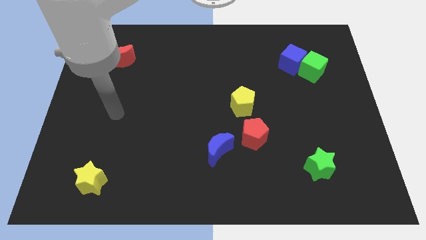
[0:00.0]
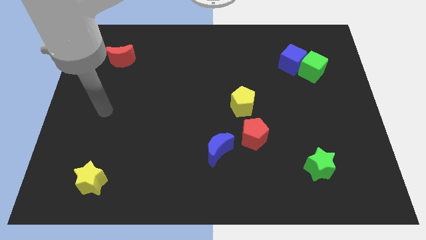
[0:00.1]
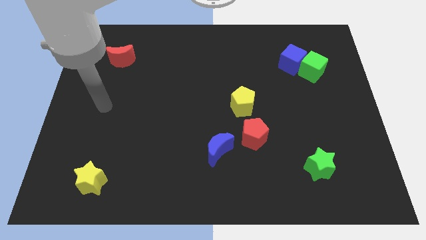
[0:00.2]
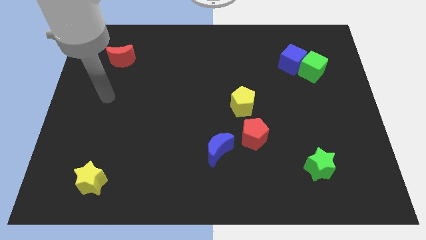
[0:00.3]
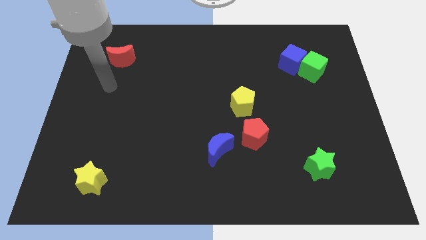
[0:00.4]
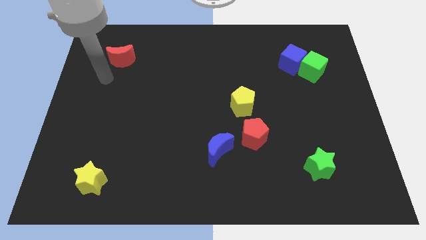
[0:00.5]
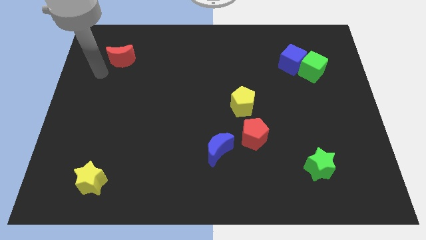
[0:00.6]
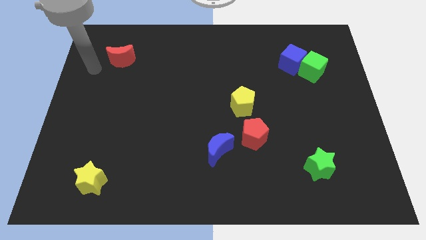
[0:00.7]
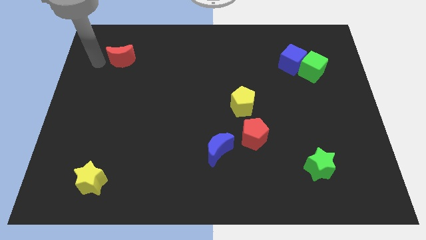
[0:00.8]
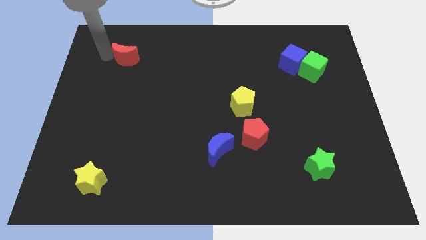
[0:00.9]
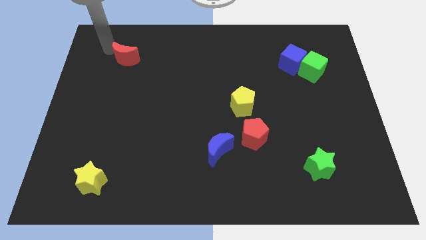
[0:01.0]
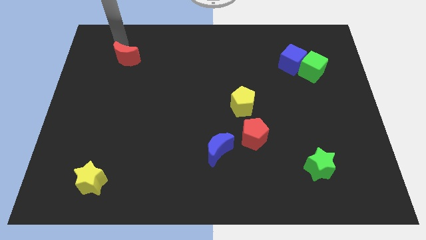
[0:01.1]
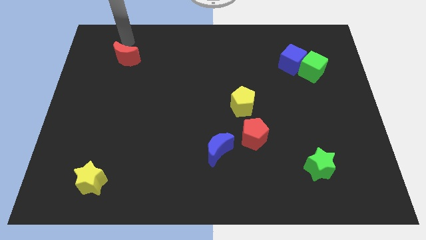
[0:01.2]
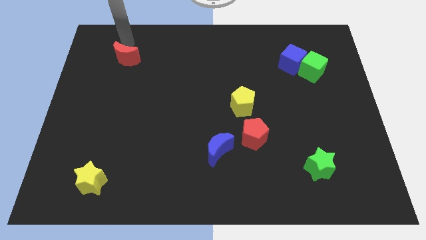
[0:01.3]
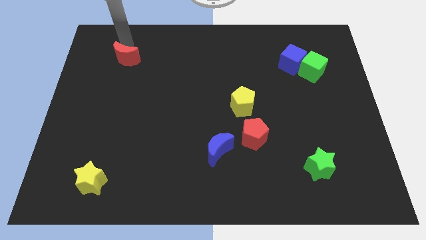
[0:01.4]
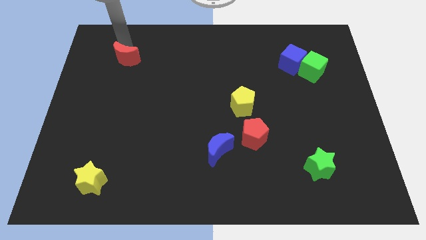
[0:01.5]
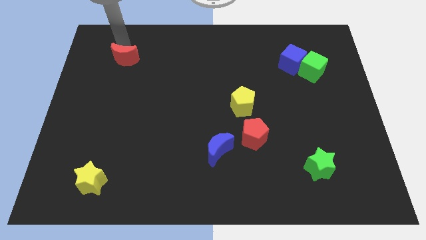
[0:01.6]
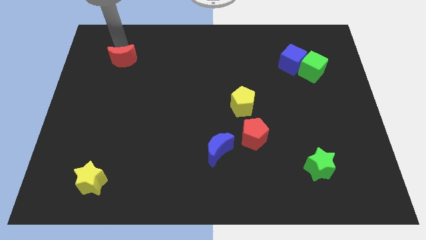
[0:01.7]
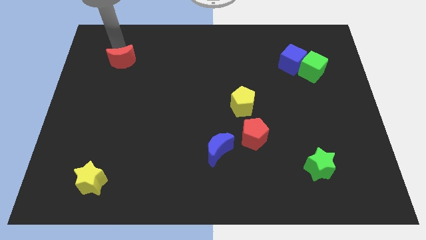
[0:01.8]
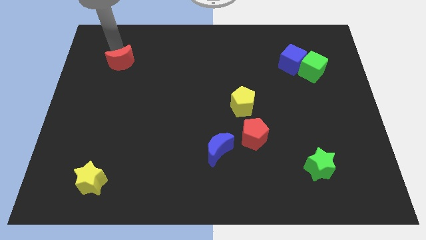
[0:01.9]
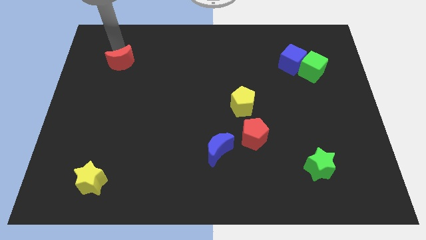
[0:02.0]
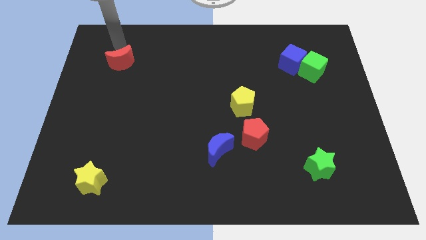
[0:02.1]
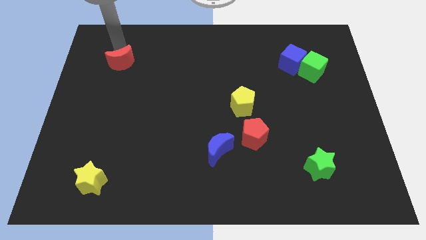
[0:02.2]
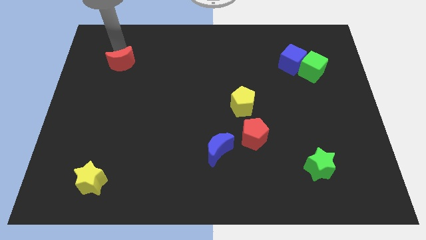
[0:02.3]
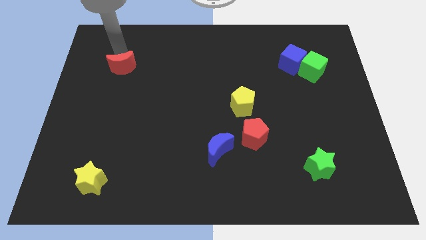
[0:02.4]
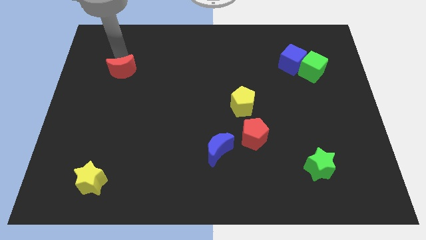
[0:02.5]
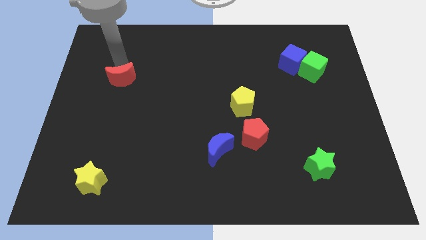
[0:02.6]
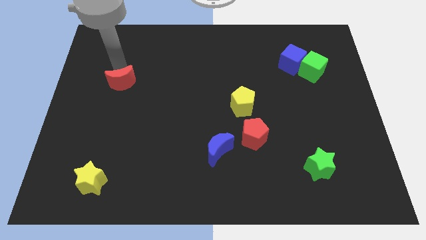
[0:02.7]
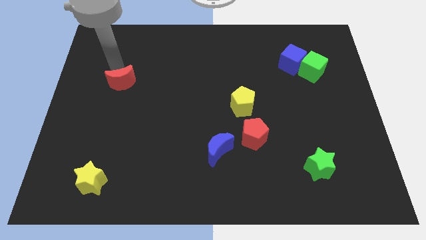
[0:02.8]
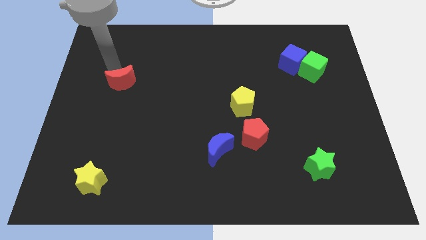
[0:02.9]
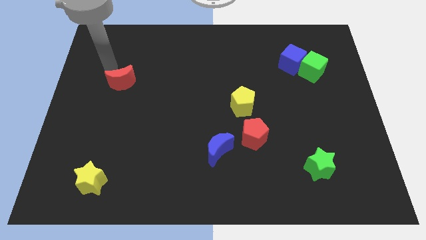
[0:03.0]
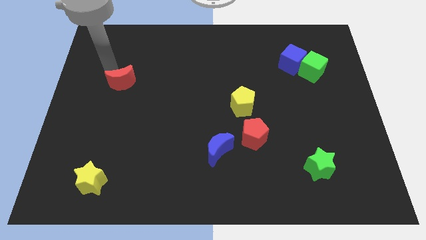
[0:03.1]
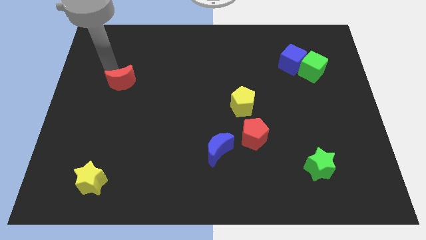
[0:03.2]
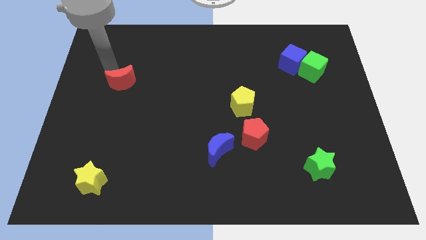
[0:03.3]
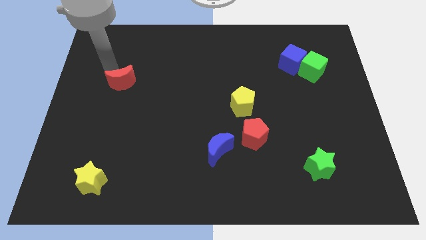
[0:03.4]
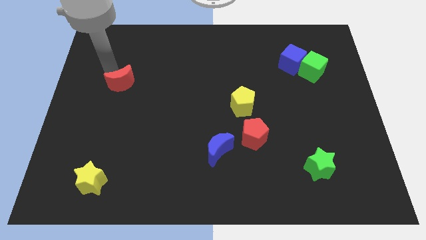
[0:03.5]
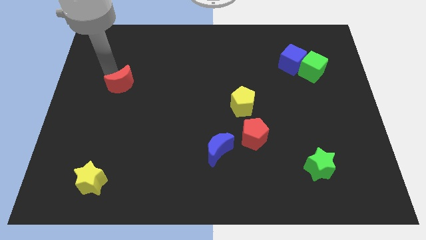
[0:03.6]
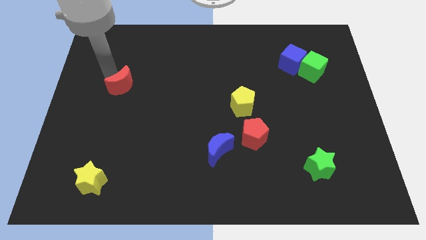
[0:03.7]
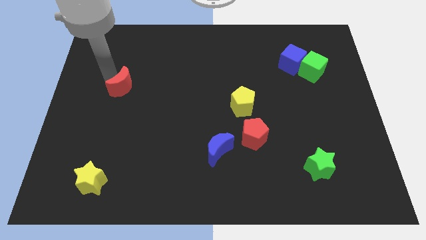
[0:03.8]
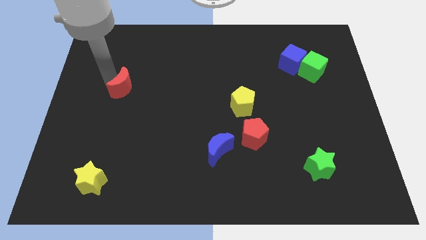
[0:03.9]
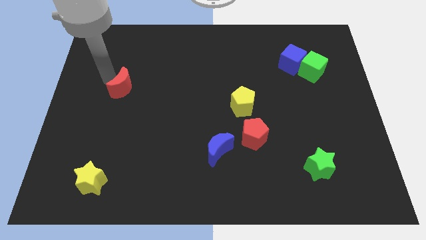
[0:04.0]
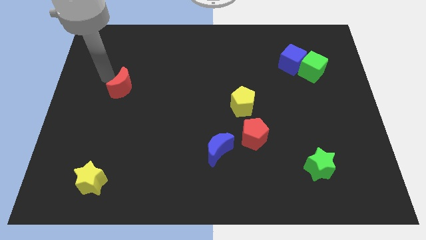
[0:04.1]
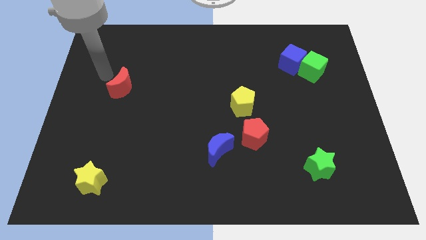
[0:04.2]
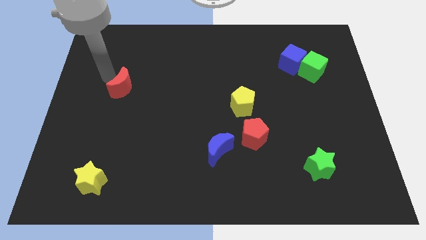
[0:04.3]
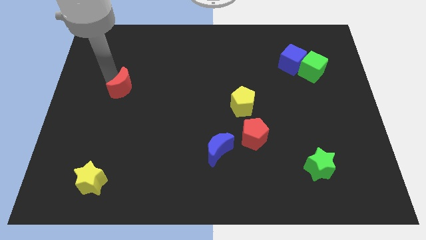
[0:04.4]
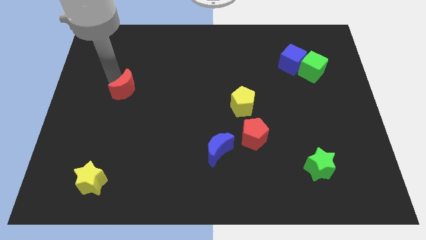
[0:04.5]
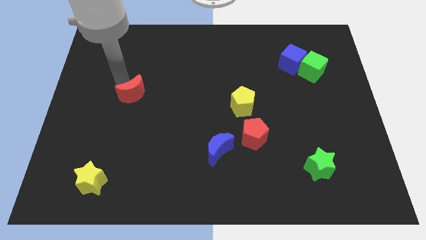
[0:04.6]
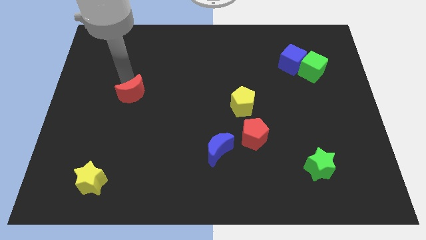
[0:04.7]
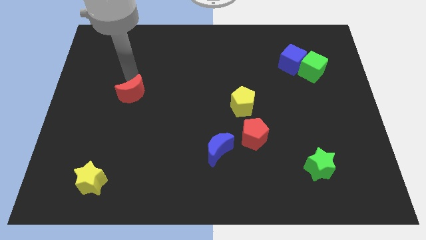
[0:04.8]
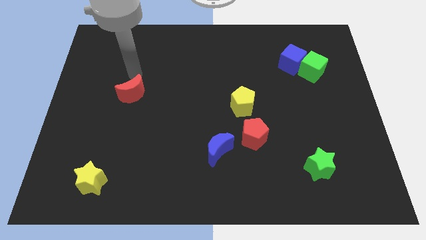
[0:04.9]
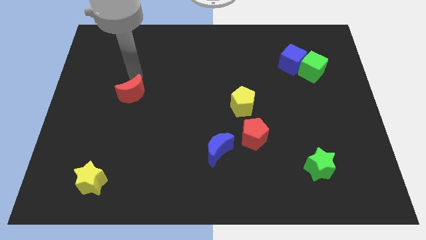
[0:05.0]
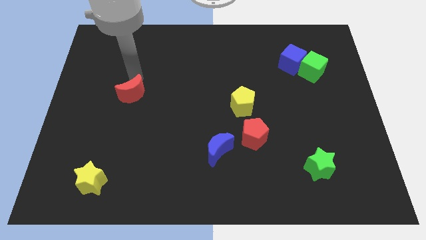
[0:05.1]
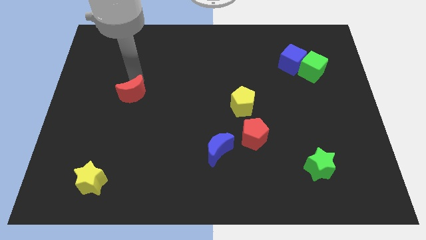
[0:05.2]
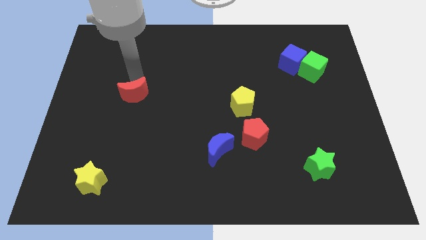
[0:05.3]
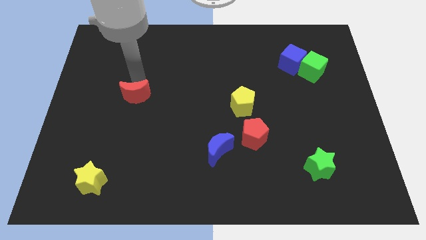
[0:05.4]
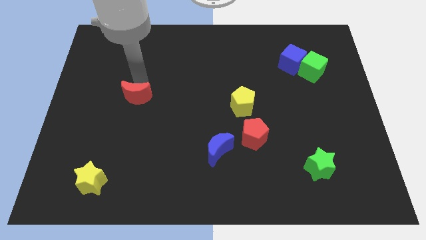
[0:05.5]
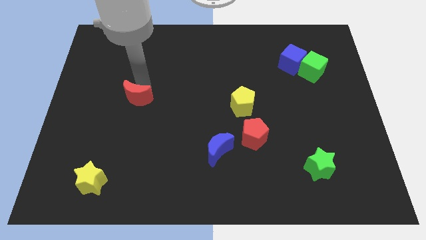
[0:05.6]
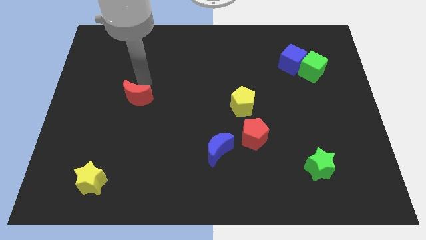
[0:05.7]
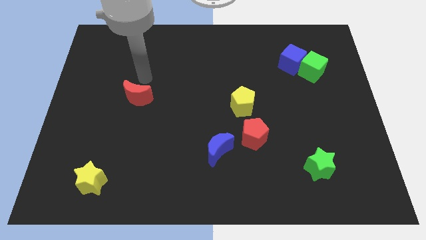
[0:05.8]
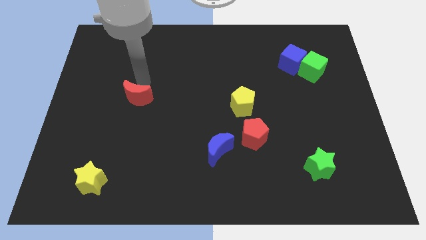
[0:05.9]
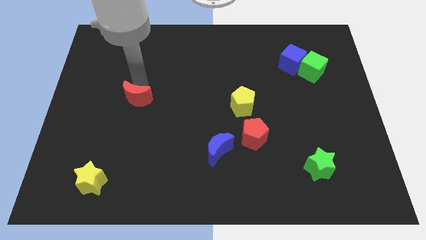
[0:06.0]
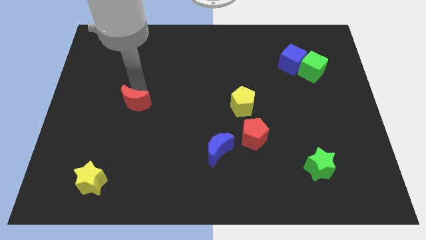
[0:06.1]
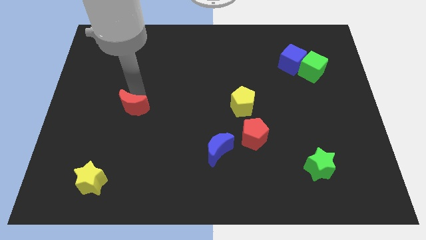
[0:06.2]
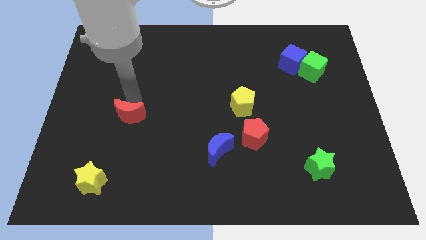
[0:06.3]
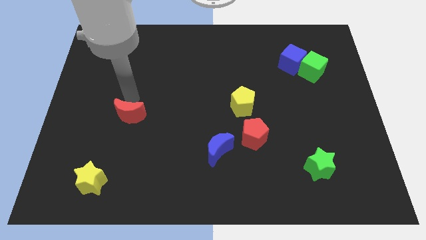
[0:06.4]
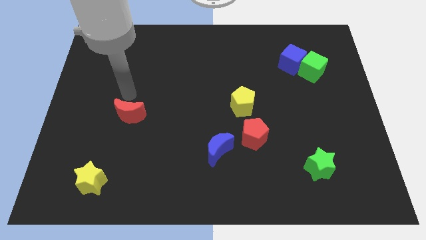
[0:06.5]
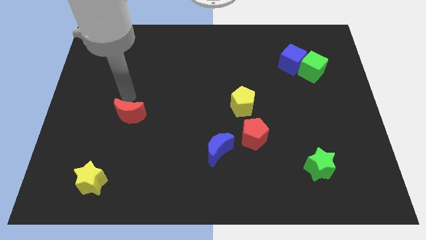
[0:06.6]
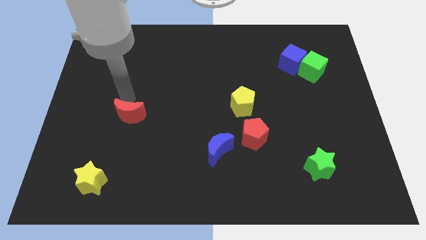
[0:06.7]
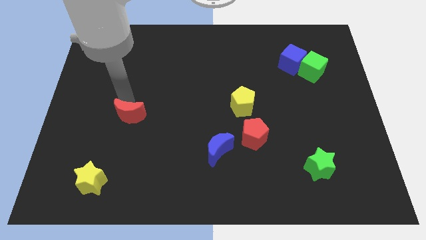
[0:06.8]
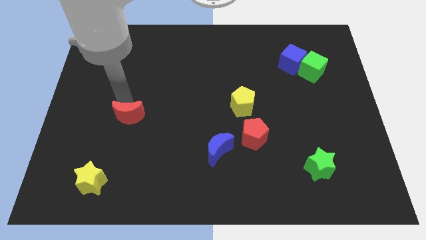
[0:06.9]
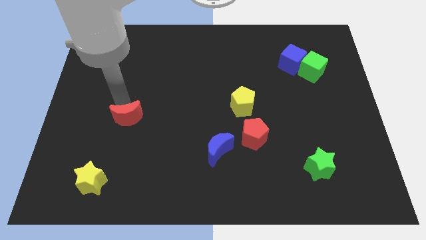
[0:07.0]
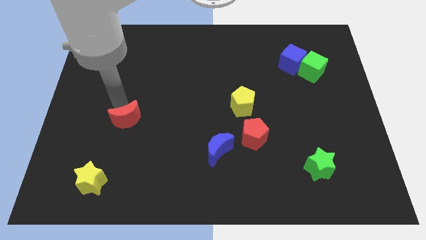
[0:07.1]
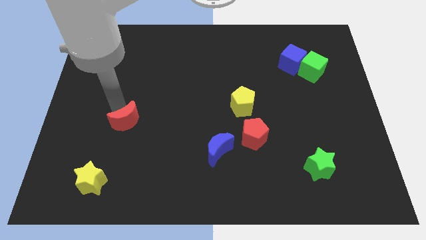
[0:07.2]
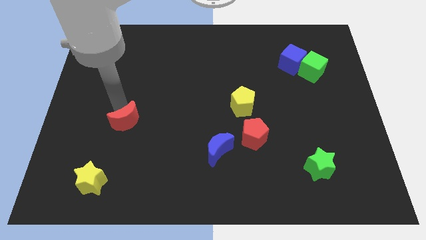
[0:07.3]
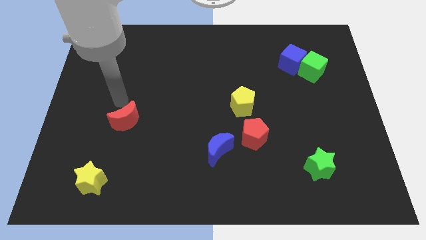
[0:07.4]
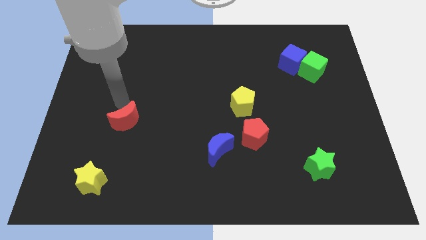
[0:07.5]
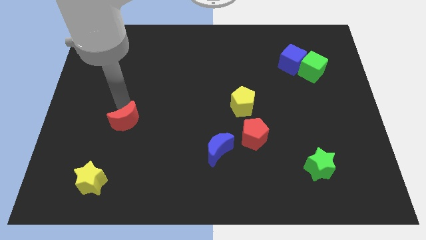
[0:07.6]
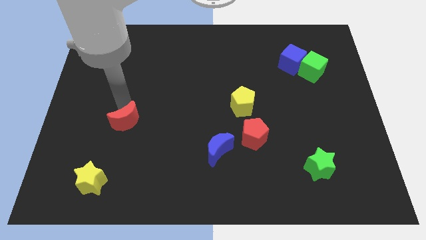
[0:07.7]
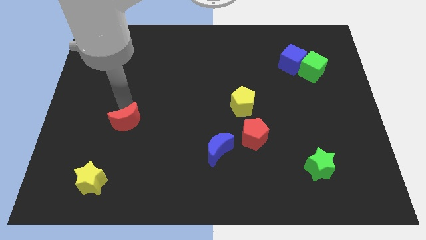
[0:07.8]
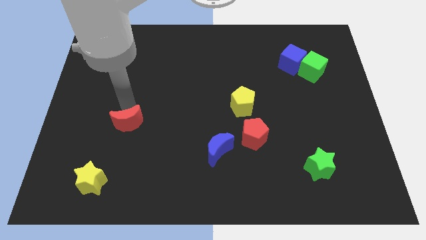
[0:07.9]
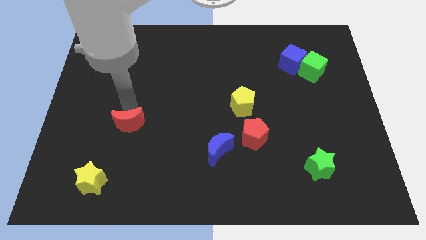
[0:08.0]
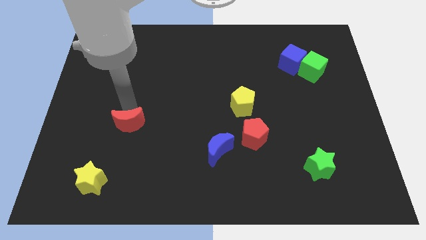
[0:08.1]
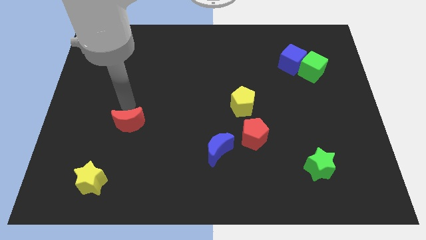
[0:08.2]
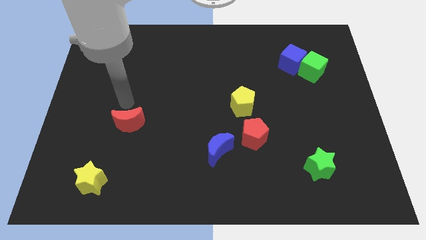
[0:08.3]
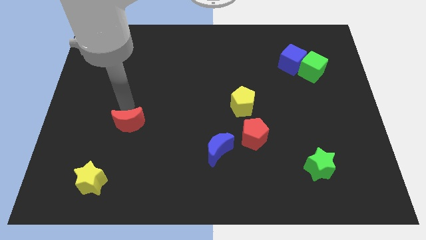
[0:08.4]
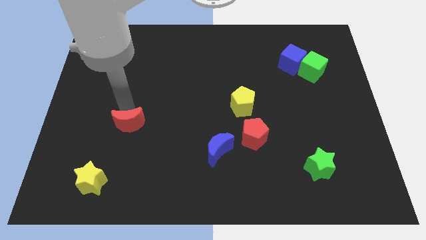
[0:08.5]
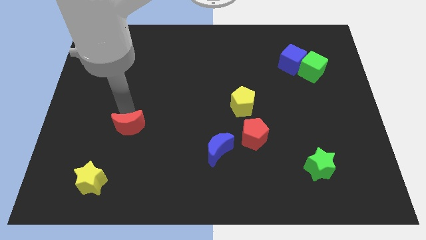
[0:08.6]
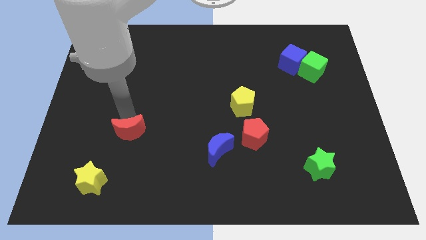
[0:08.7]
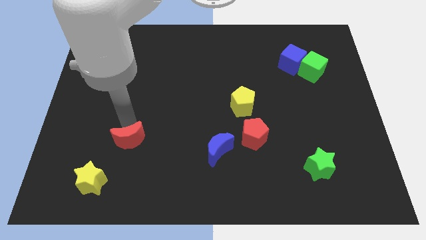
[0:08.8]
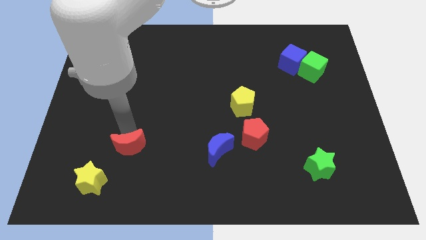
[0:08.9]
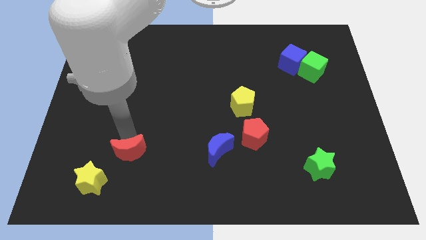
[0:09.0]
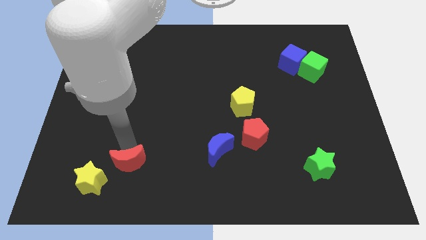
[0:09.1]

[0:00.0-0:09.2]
move the red moon just right of the yellow star
